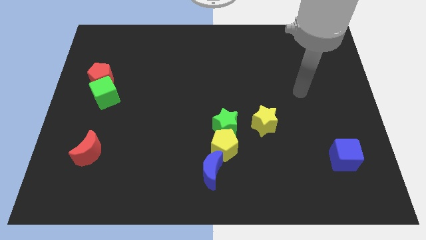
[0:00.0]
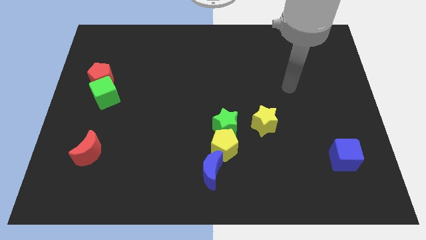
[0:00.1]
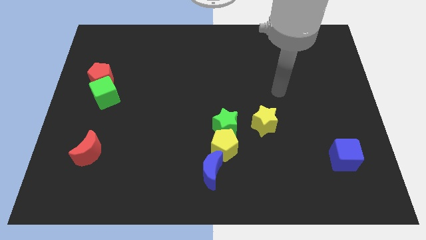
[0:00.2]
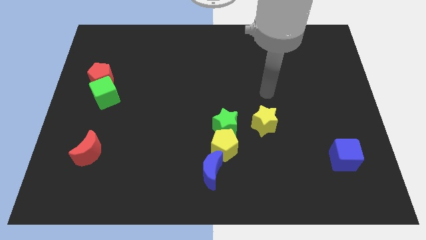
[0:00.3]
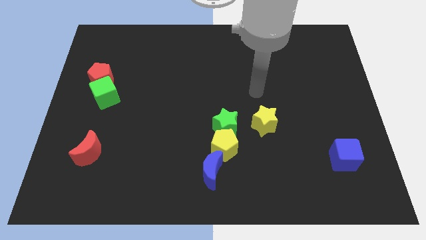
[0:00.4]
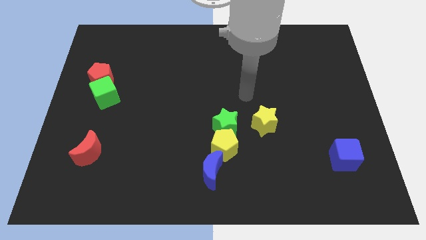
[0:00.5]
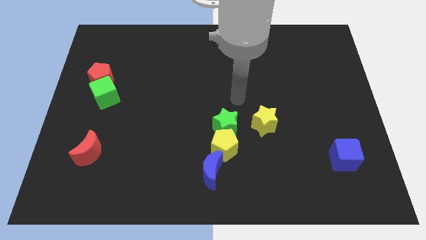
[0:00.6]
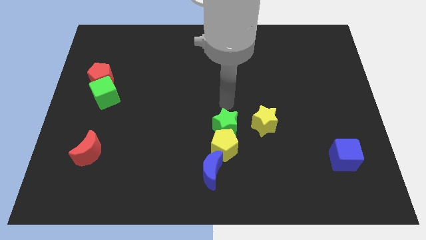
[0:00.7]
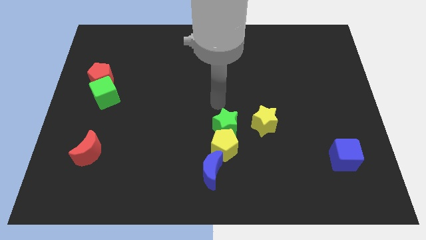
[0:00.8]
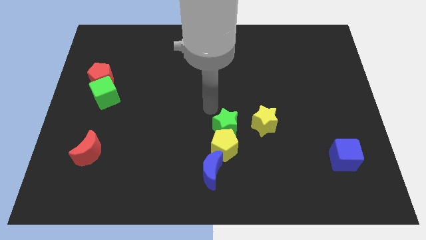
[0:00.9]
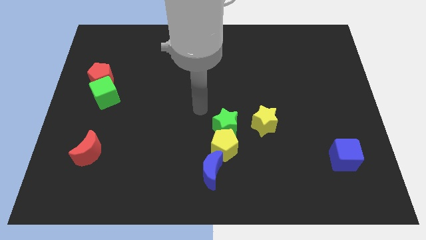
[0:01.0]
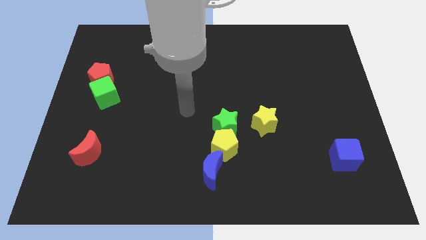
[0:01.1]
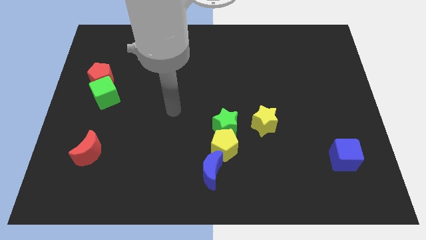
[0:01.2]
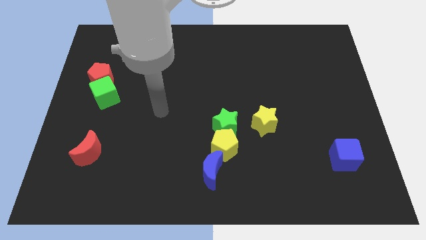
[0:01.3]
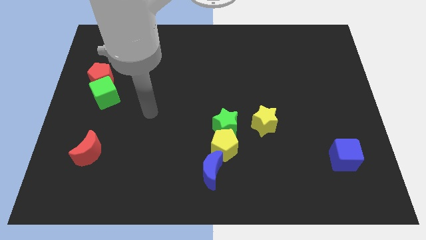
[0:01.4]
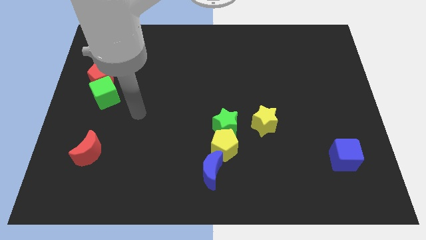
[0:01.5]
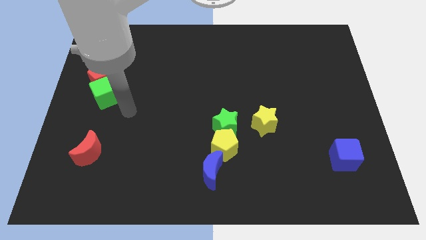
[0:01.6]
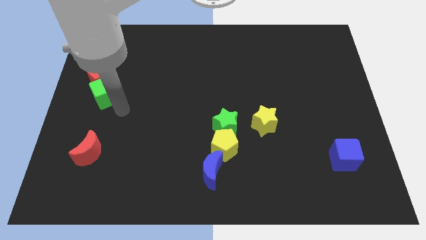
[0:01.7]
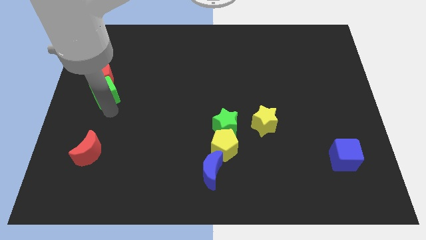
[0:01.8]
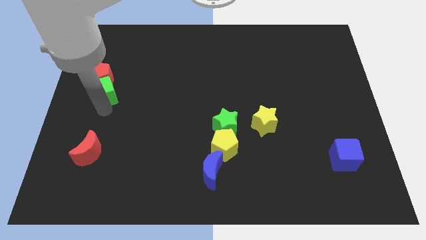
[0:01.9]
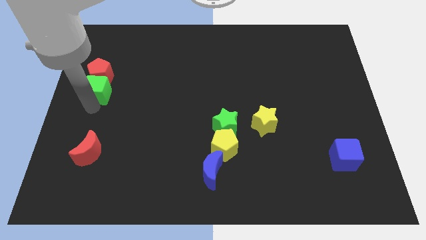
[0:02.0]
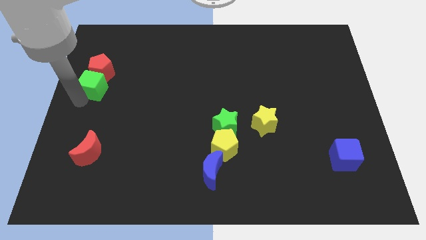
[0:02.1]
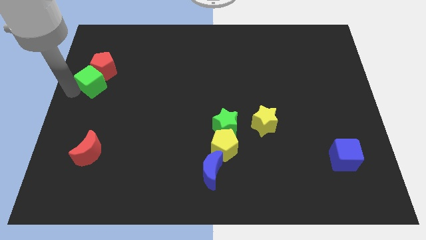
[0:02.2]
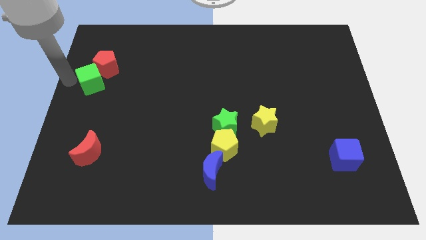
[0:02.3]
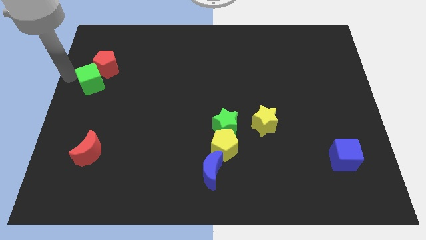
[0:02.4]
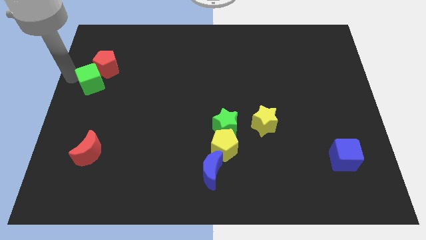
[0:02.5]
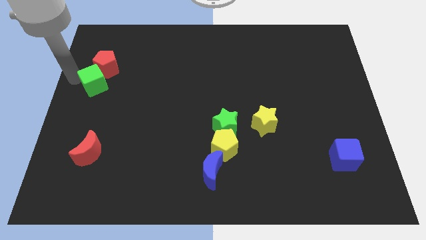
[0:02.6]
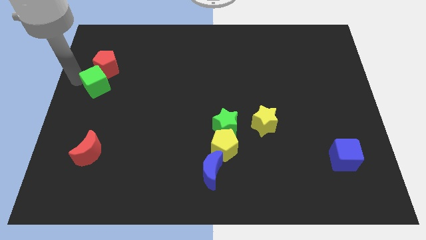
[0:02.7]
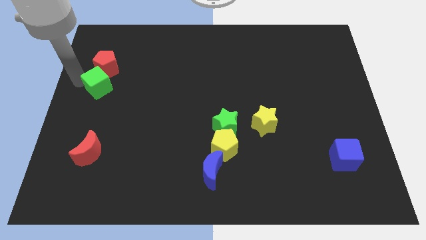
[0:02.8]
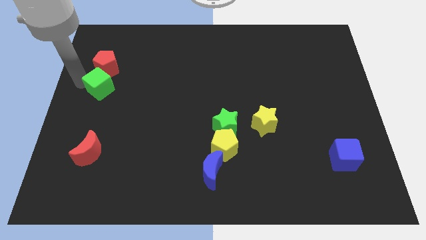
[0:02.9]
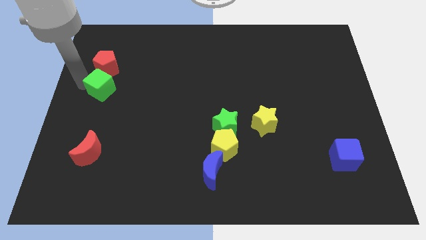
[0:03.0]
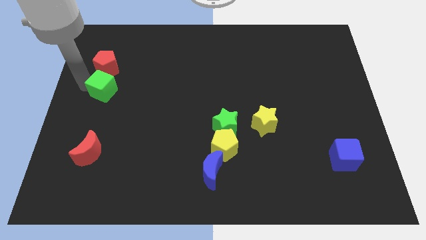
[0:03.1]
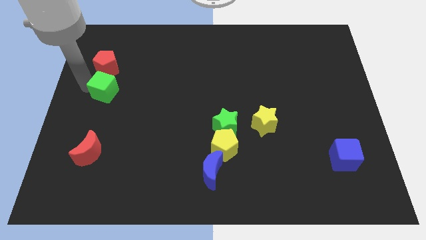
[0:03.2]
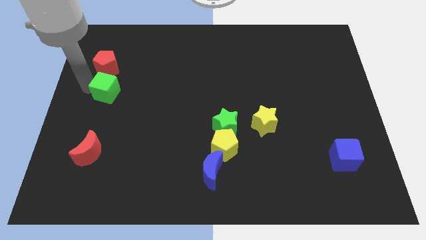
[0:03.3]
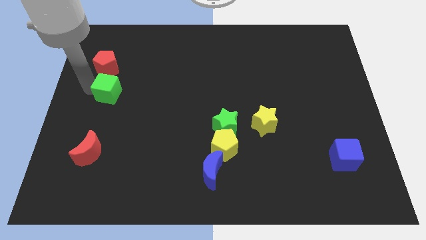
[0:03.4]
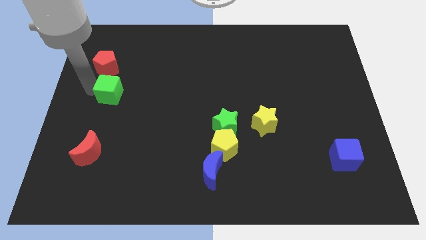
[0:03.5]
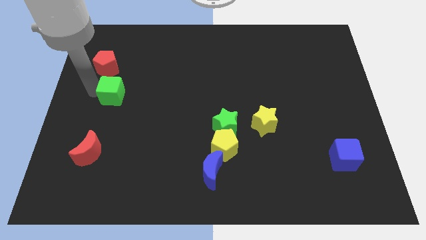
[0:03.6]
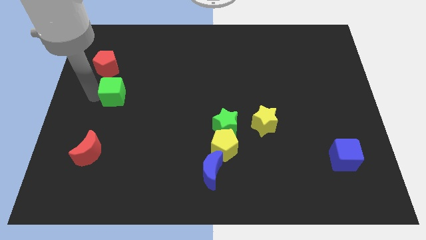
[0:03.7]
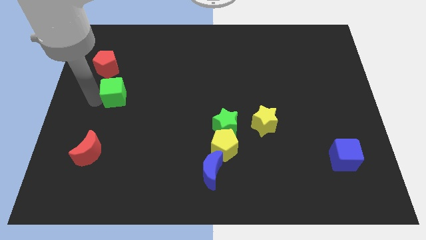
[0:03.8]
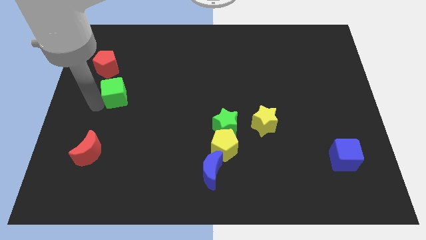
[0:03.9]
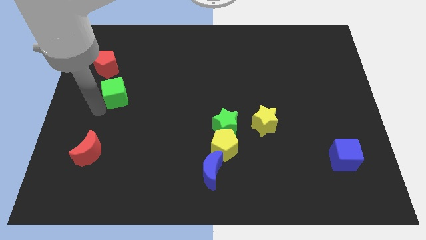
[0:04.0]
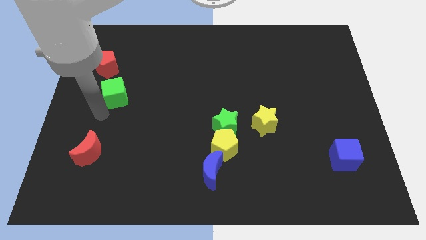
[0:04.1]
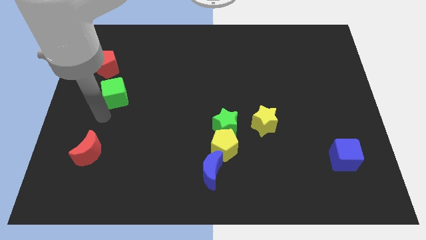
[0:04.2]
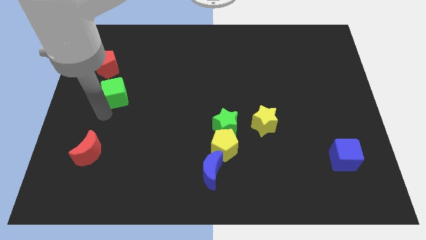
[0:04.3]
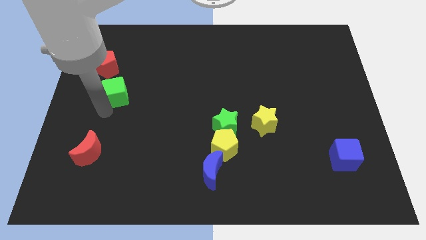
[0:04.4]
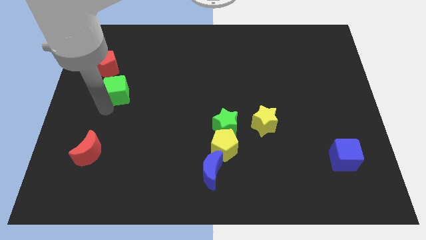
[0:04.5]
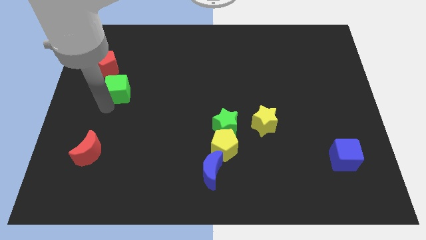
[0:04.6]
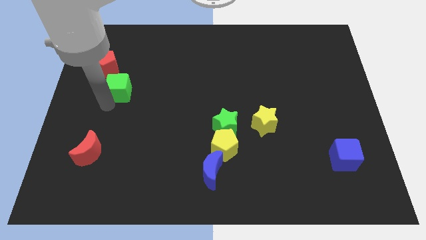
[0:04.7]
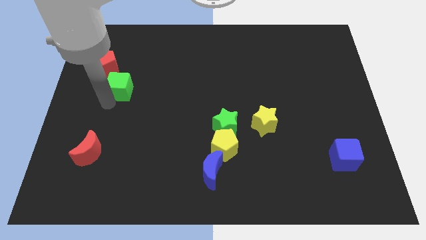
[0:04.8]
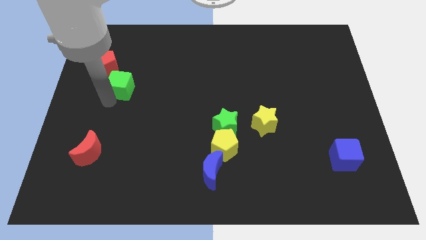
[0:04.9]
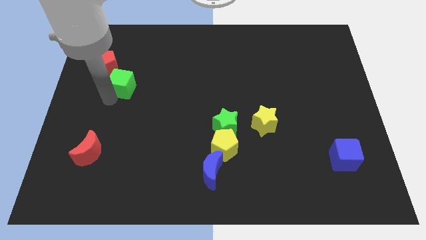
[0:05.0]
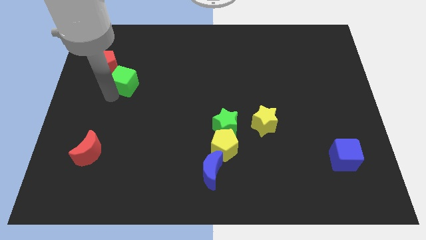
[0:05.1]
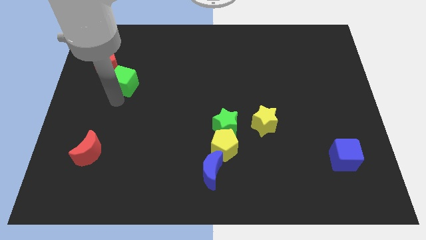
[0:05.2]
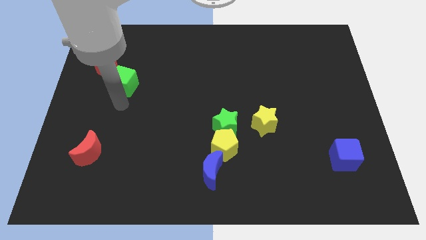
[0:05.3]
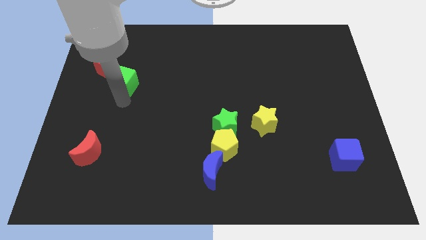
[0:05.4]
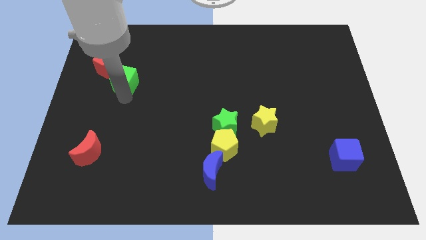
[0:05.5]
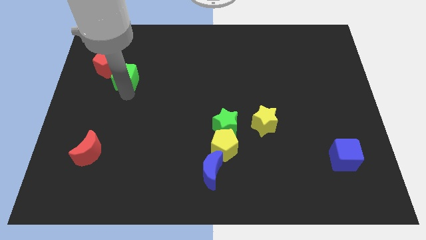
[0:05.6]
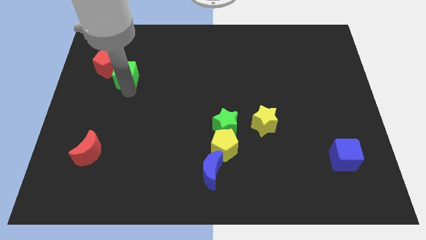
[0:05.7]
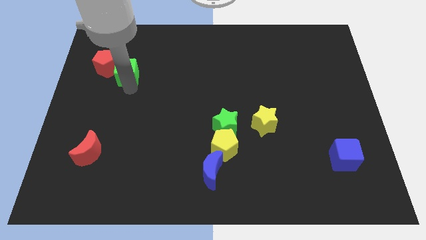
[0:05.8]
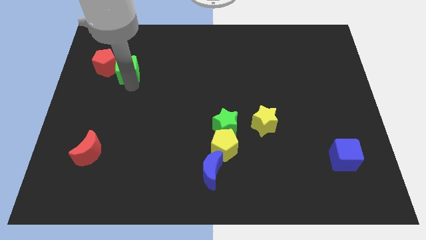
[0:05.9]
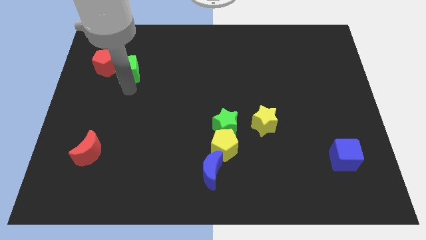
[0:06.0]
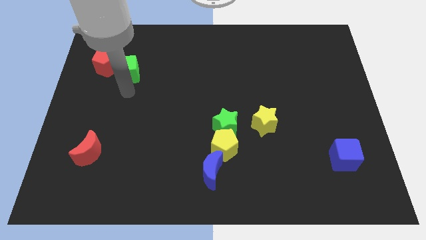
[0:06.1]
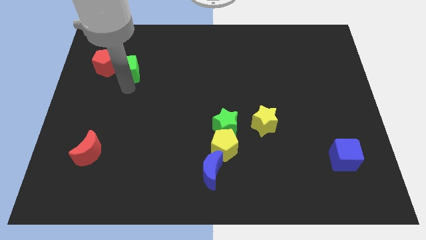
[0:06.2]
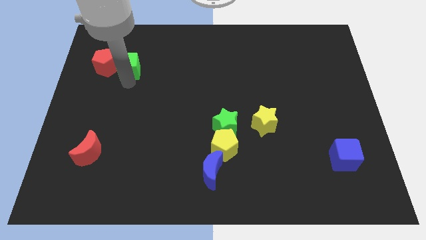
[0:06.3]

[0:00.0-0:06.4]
put the green cube to the top right of the red pentagon

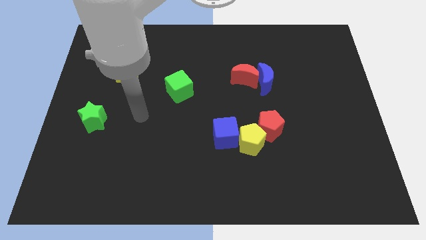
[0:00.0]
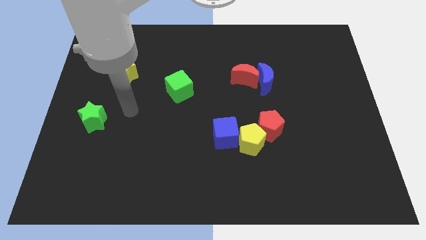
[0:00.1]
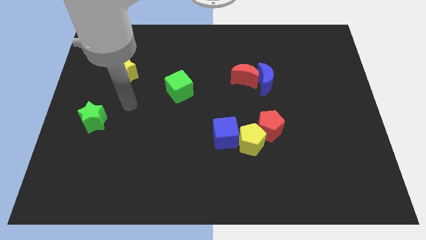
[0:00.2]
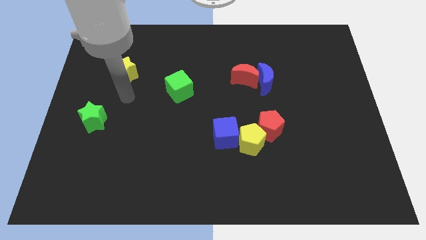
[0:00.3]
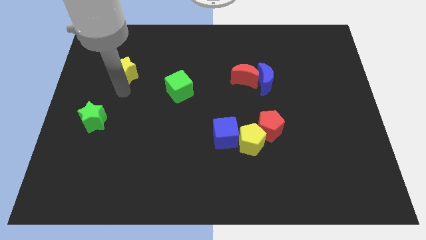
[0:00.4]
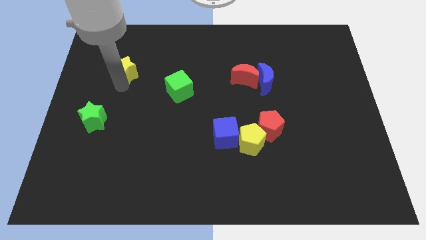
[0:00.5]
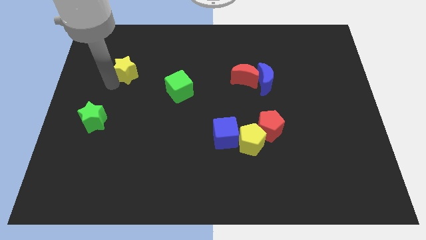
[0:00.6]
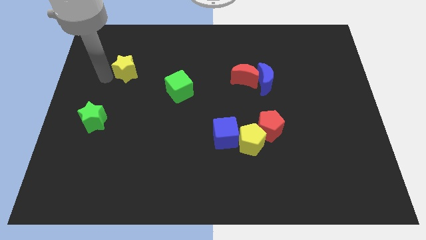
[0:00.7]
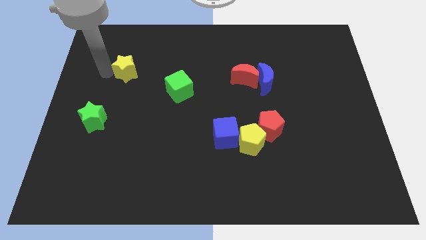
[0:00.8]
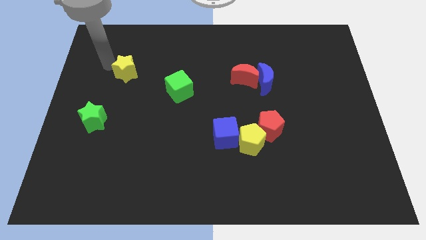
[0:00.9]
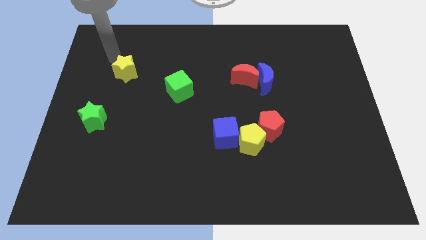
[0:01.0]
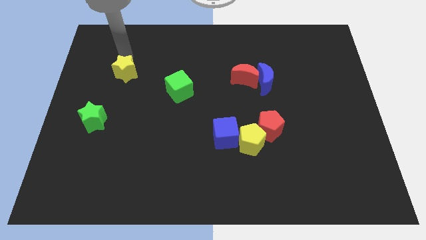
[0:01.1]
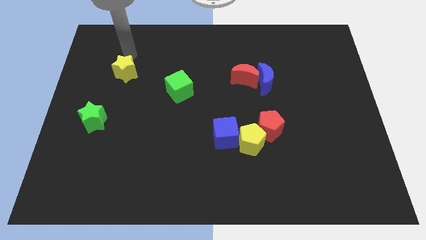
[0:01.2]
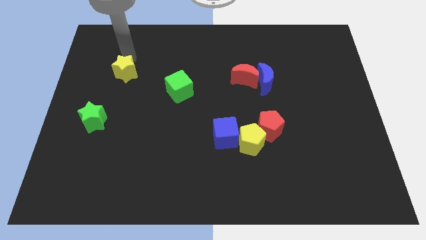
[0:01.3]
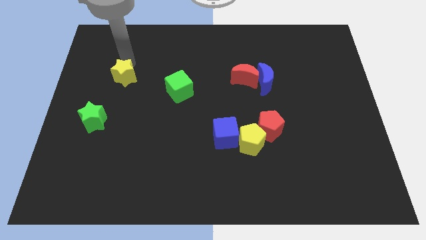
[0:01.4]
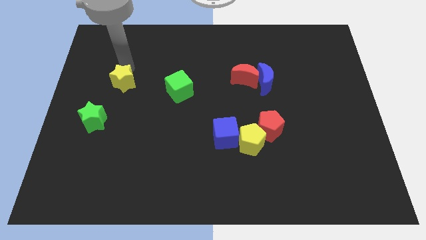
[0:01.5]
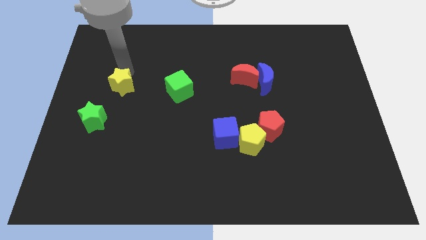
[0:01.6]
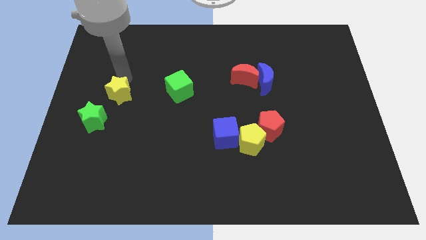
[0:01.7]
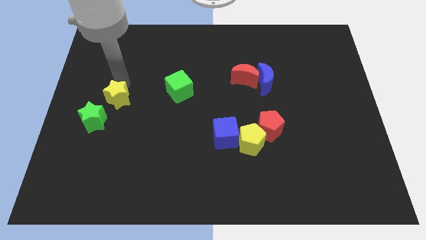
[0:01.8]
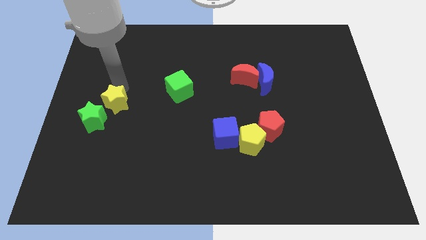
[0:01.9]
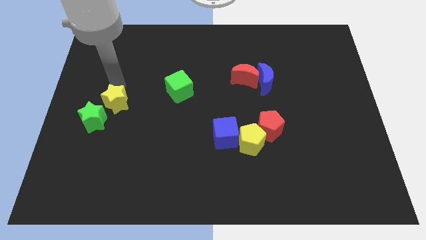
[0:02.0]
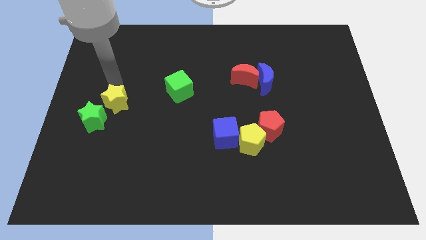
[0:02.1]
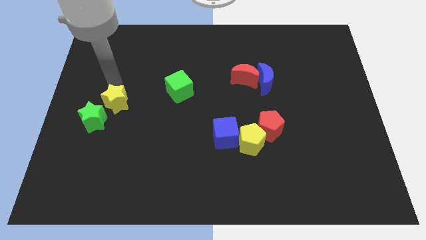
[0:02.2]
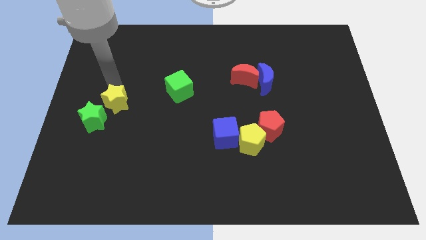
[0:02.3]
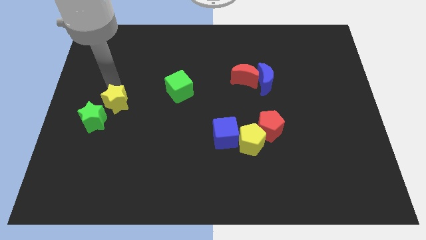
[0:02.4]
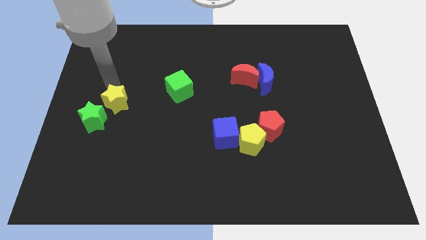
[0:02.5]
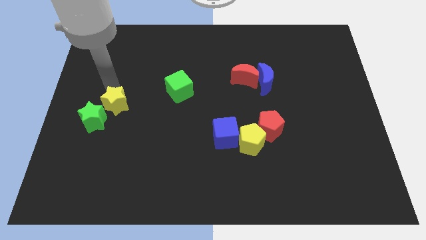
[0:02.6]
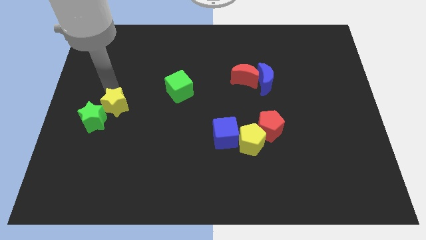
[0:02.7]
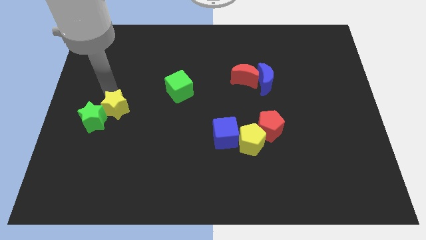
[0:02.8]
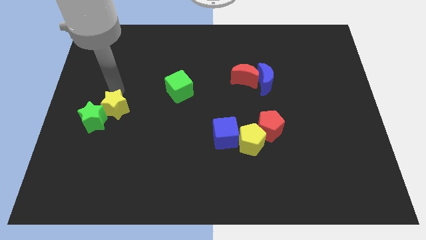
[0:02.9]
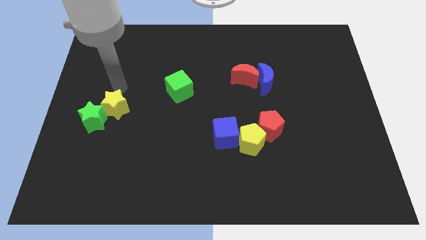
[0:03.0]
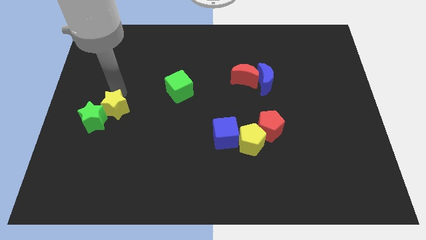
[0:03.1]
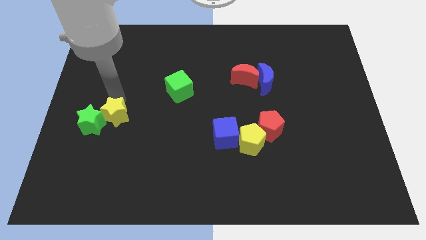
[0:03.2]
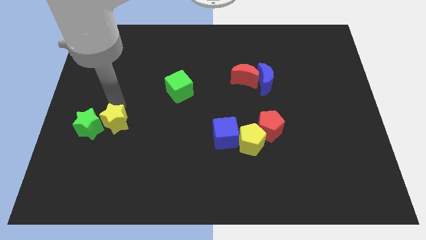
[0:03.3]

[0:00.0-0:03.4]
put the yellow star to the bottom right side of the green star
